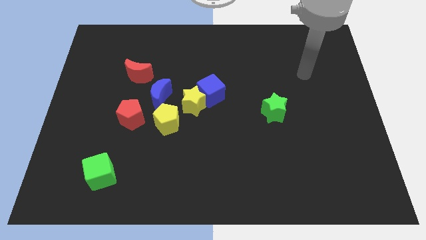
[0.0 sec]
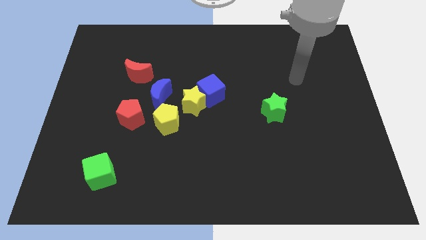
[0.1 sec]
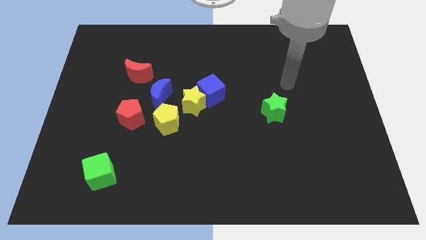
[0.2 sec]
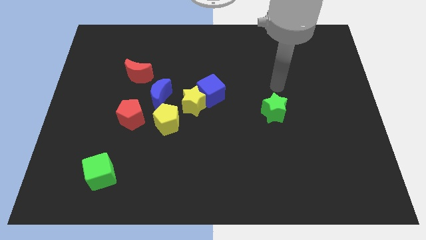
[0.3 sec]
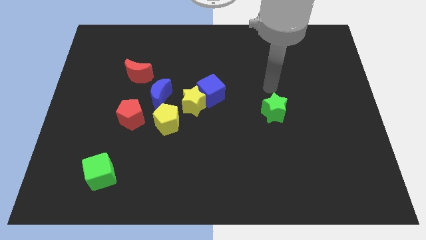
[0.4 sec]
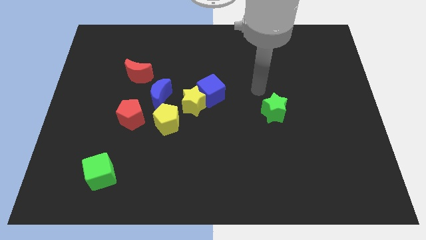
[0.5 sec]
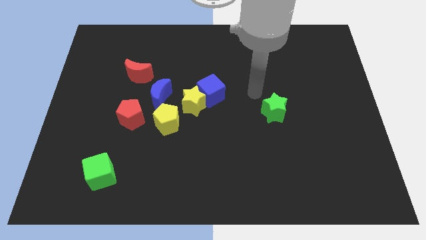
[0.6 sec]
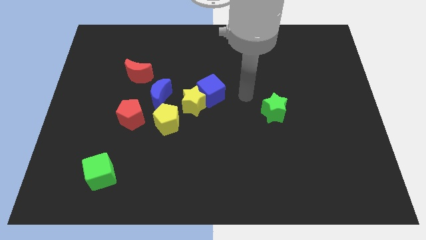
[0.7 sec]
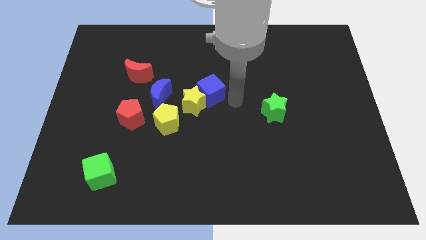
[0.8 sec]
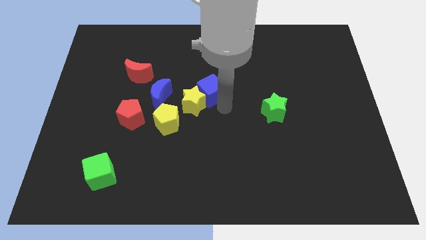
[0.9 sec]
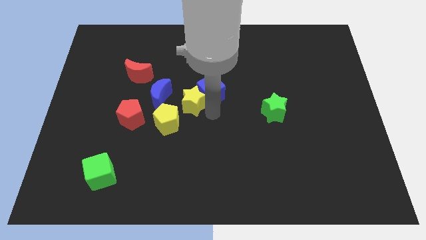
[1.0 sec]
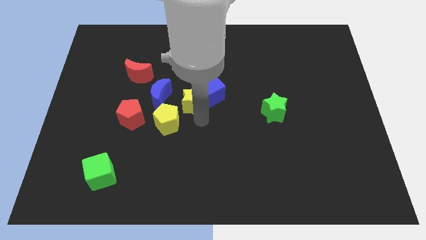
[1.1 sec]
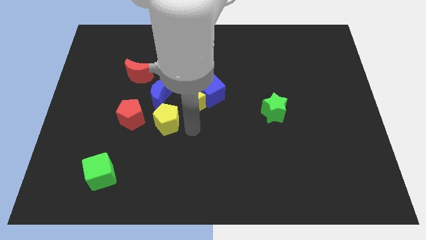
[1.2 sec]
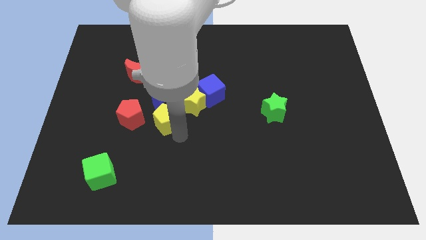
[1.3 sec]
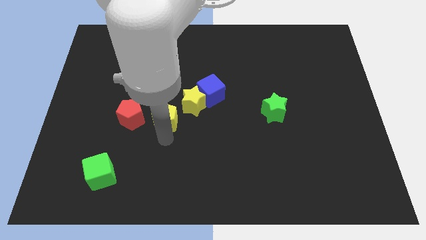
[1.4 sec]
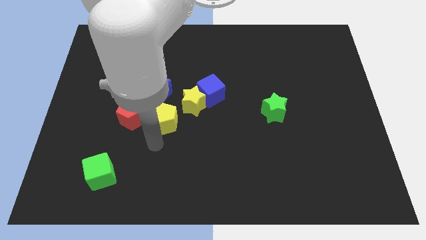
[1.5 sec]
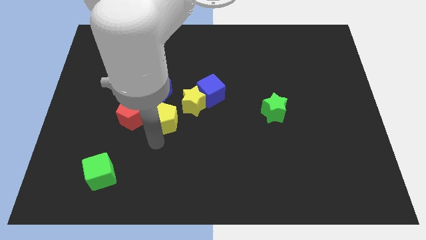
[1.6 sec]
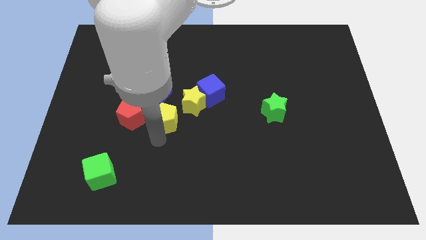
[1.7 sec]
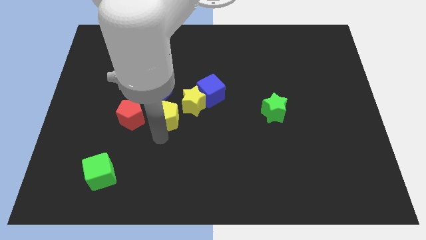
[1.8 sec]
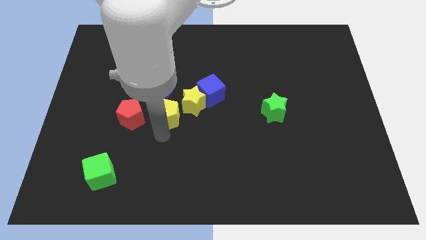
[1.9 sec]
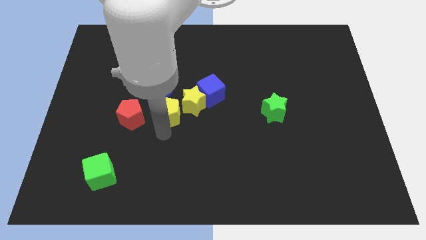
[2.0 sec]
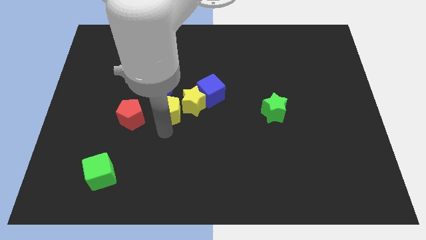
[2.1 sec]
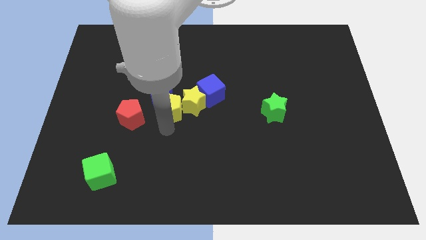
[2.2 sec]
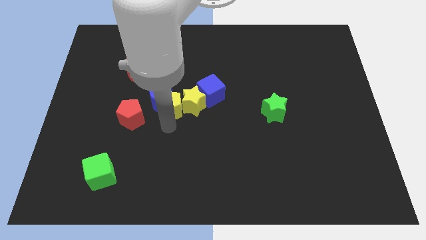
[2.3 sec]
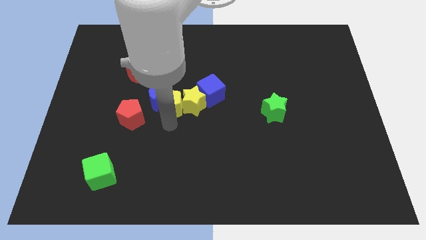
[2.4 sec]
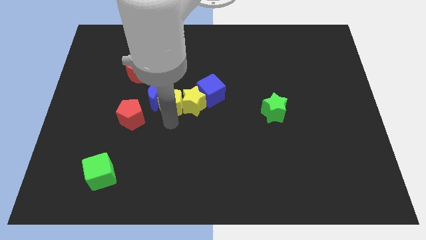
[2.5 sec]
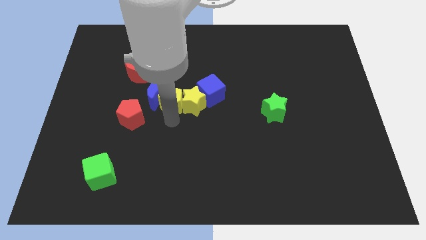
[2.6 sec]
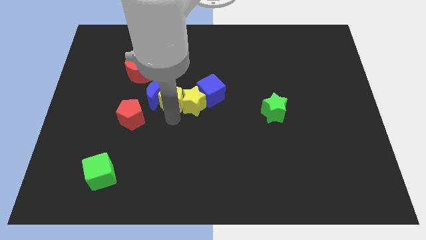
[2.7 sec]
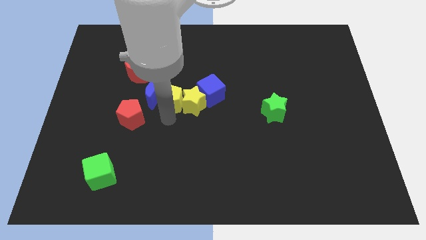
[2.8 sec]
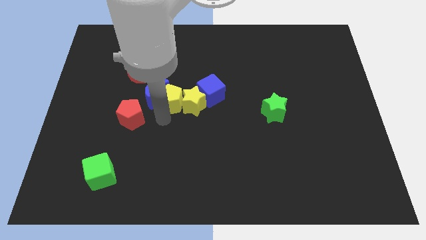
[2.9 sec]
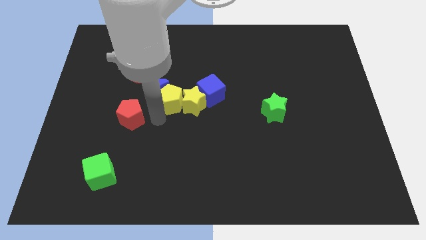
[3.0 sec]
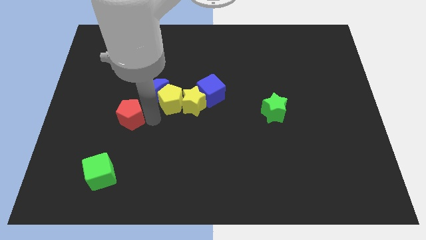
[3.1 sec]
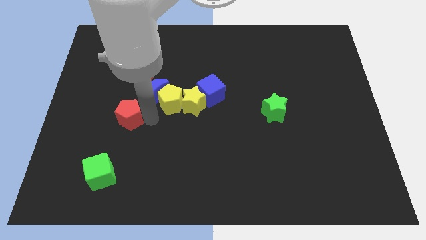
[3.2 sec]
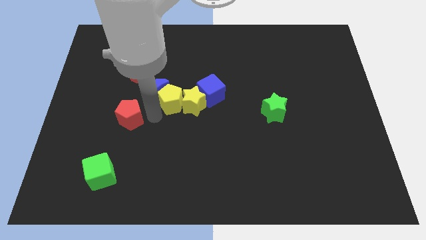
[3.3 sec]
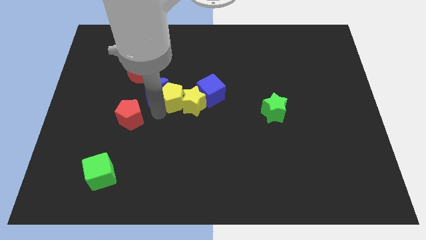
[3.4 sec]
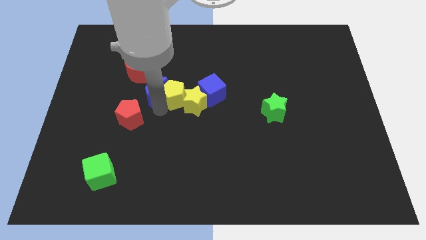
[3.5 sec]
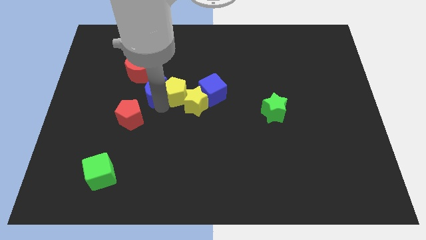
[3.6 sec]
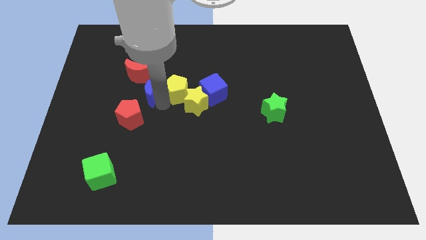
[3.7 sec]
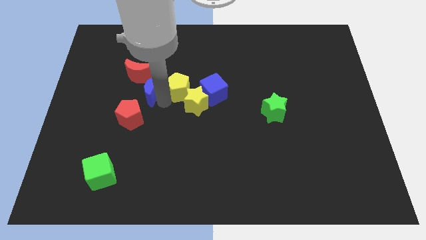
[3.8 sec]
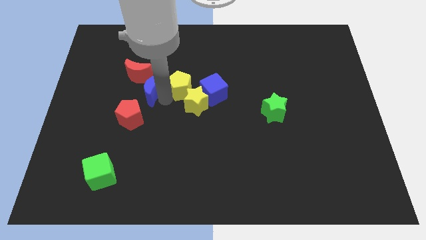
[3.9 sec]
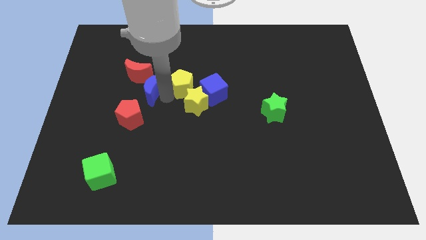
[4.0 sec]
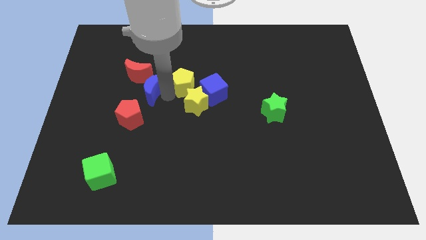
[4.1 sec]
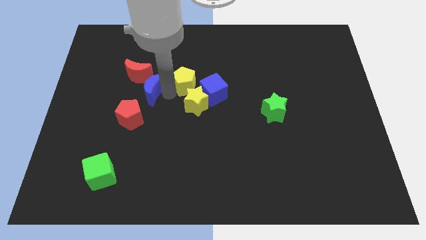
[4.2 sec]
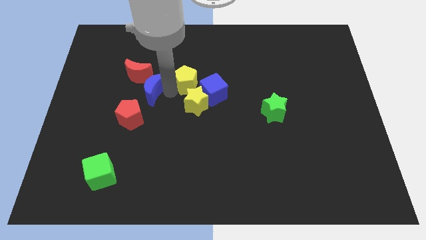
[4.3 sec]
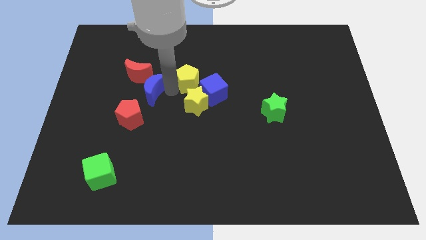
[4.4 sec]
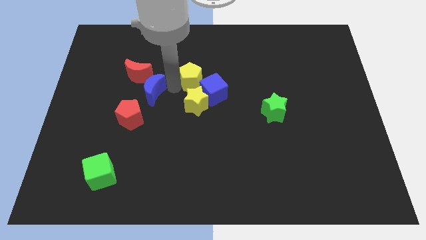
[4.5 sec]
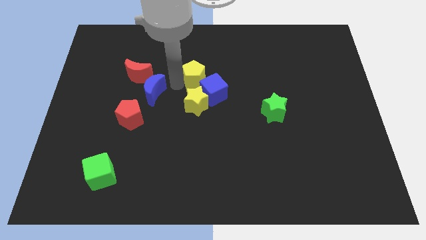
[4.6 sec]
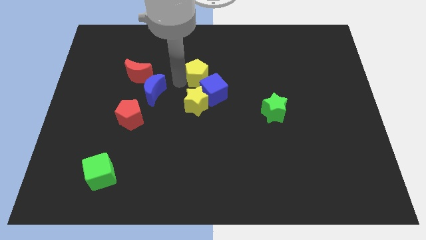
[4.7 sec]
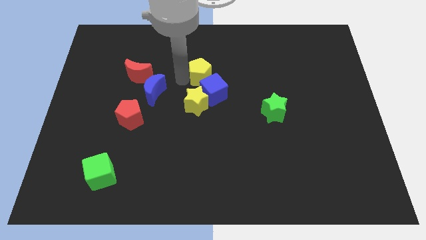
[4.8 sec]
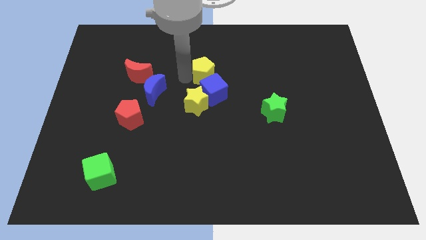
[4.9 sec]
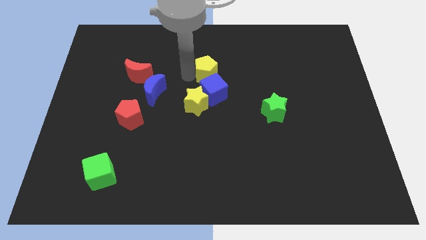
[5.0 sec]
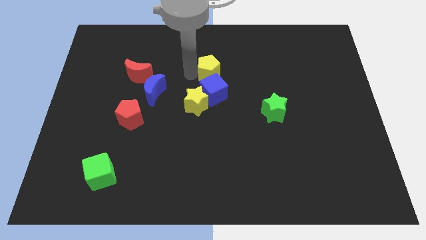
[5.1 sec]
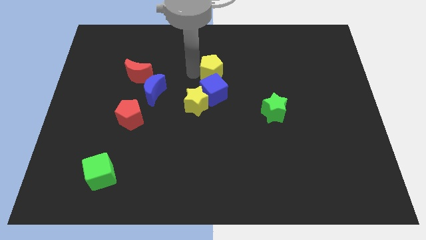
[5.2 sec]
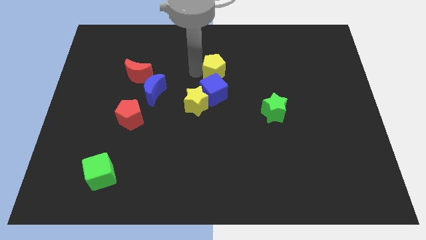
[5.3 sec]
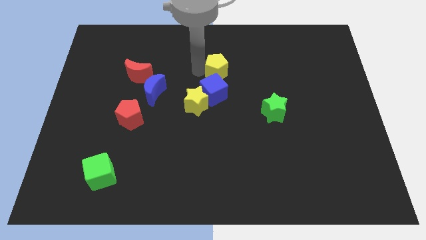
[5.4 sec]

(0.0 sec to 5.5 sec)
move the yellow pentagon to the top right side of the blue cube

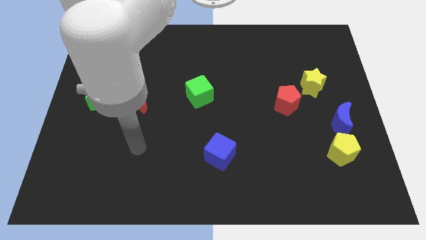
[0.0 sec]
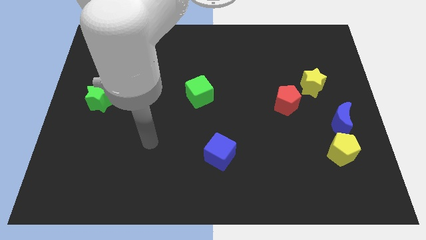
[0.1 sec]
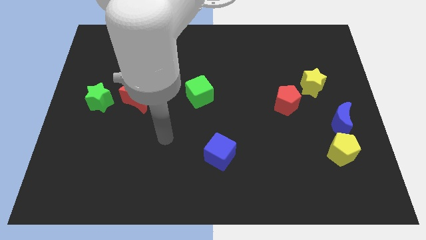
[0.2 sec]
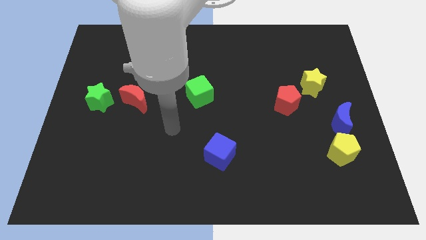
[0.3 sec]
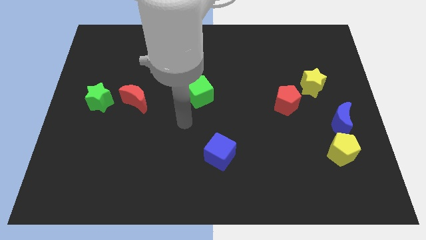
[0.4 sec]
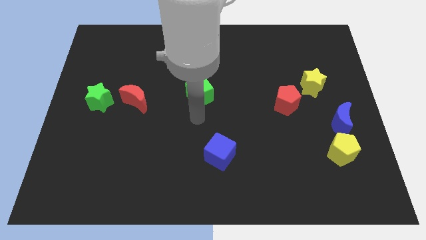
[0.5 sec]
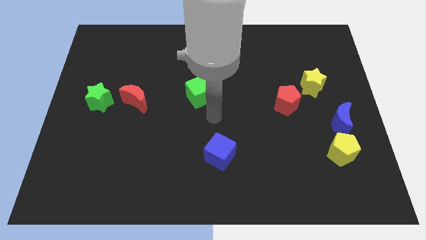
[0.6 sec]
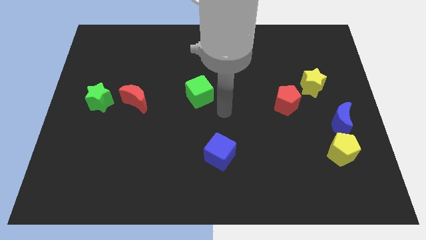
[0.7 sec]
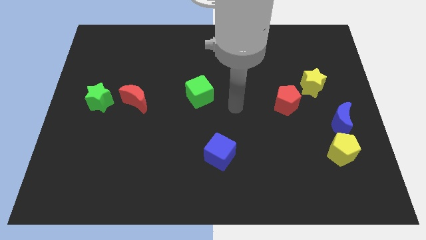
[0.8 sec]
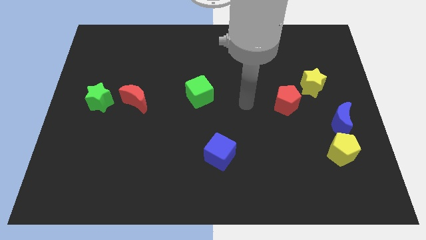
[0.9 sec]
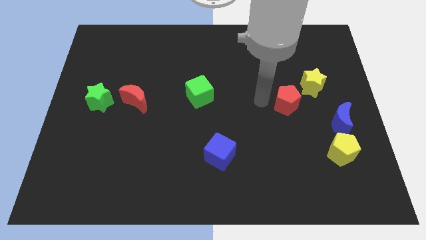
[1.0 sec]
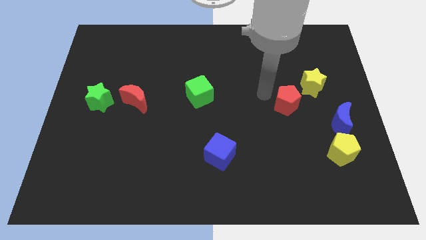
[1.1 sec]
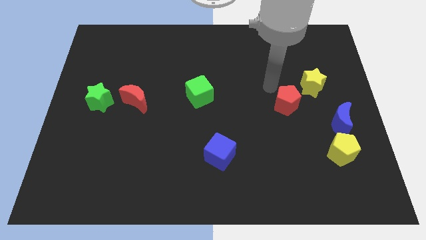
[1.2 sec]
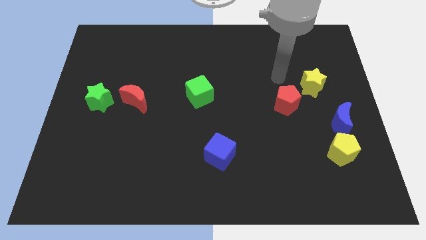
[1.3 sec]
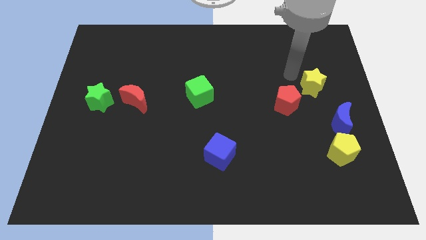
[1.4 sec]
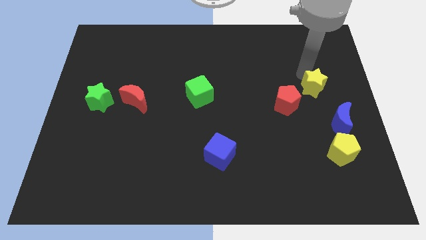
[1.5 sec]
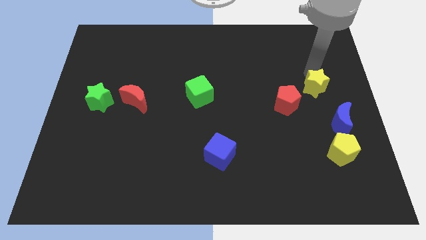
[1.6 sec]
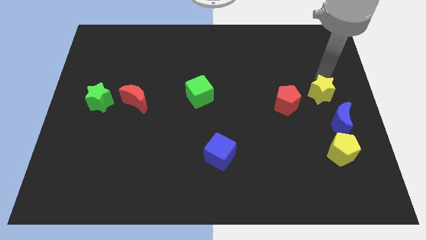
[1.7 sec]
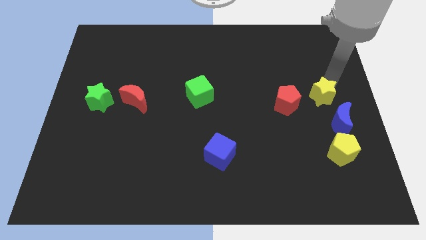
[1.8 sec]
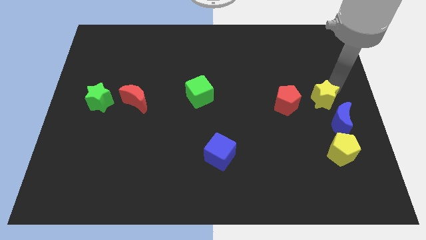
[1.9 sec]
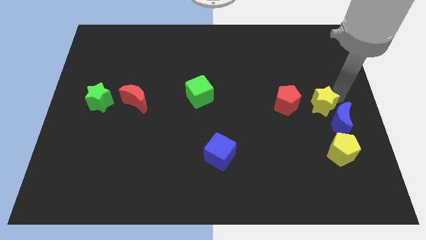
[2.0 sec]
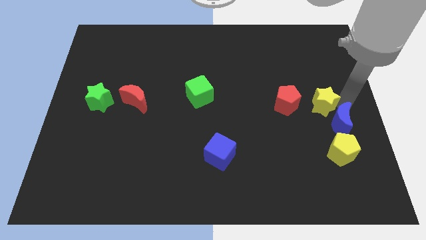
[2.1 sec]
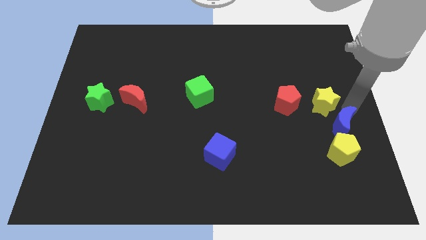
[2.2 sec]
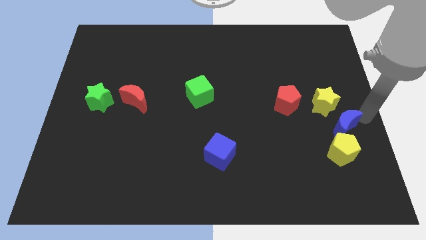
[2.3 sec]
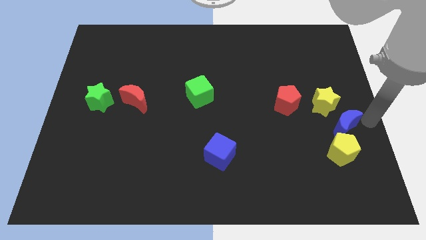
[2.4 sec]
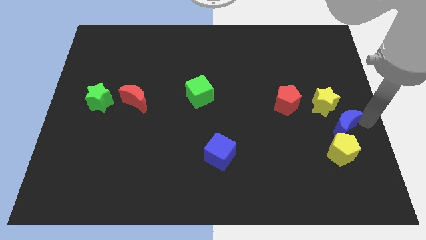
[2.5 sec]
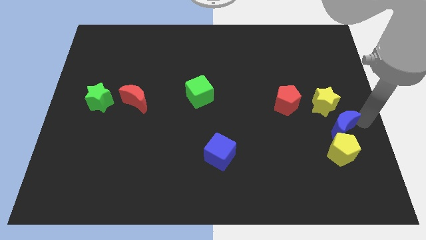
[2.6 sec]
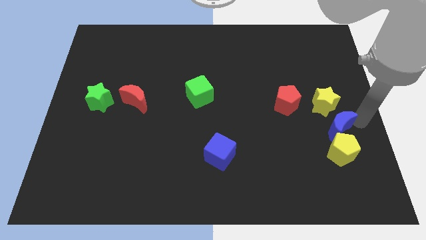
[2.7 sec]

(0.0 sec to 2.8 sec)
put the blue moon diagonally up and to the left of the yellow pentagon

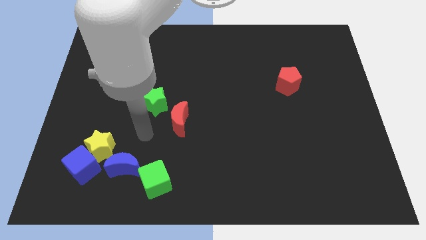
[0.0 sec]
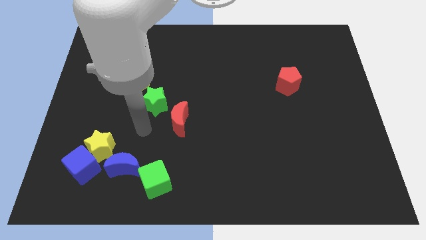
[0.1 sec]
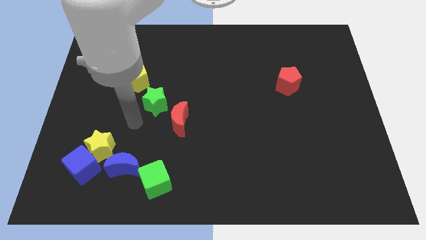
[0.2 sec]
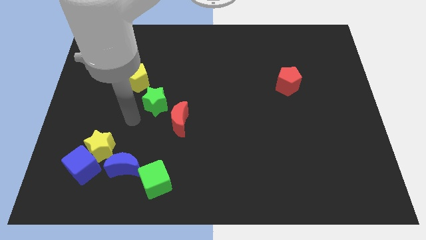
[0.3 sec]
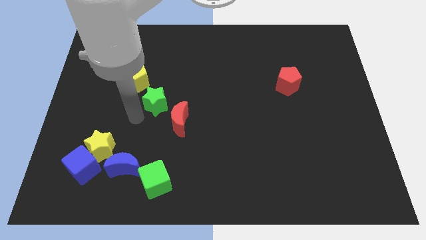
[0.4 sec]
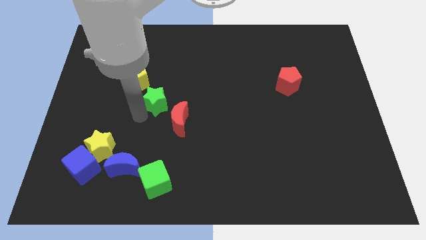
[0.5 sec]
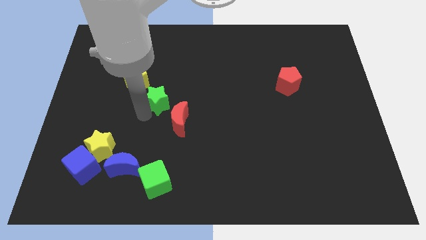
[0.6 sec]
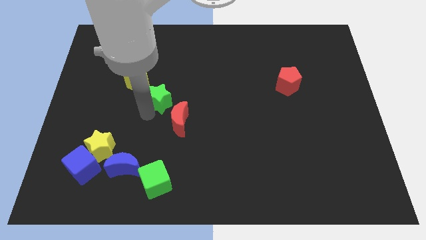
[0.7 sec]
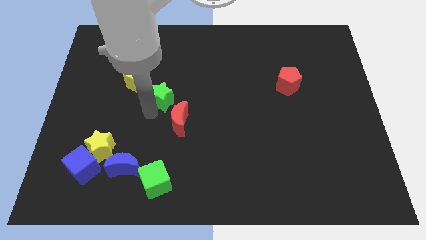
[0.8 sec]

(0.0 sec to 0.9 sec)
move the green star above the red moon
